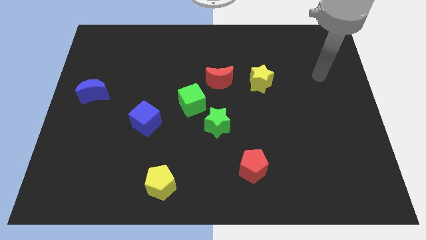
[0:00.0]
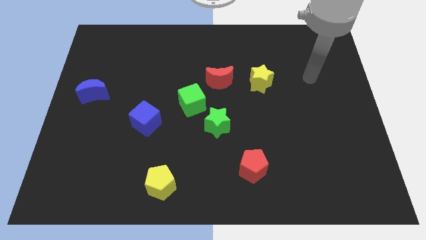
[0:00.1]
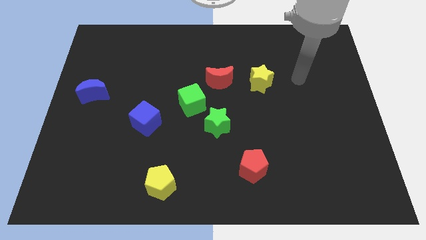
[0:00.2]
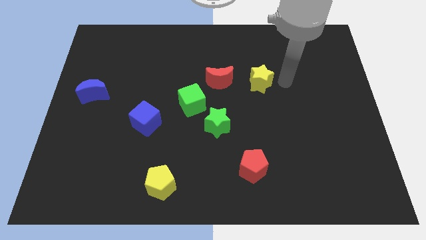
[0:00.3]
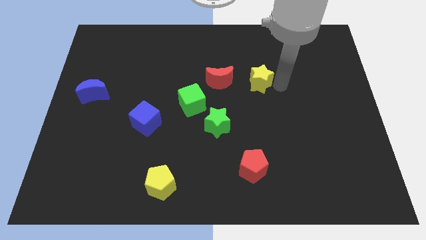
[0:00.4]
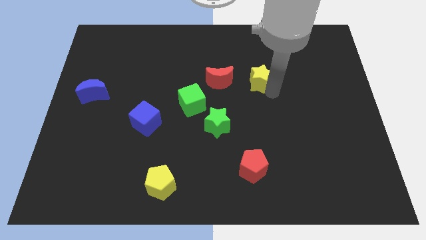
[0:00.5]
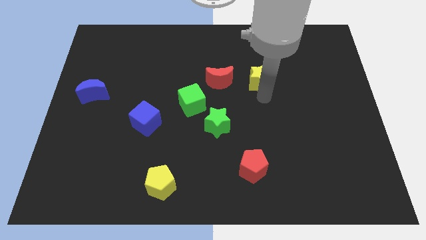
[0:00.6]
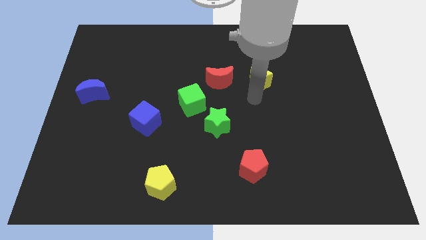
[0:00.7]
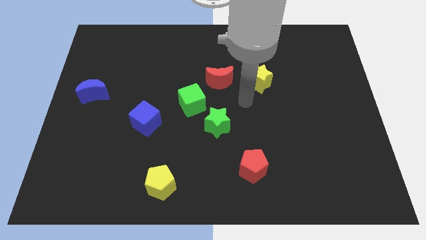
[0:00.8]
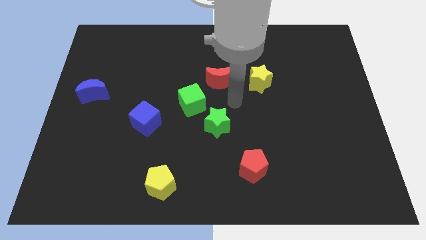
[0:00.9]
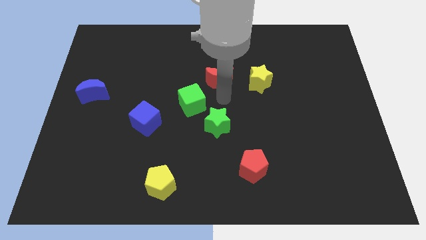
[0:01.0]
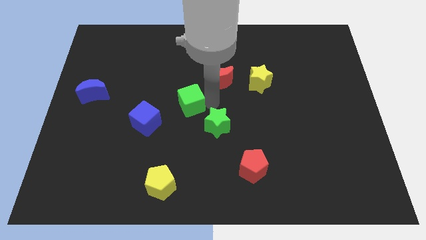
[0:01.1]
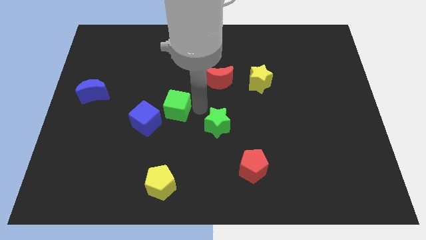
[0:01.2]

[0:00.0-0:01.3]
pull the green star apart from the green cube

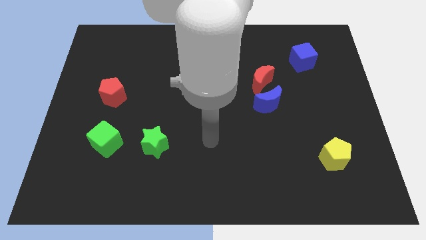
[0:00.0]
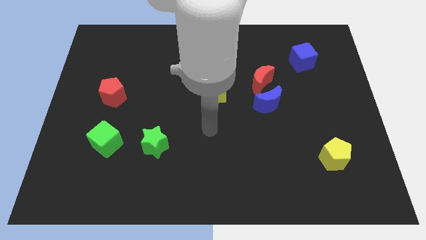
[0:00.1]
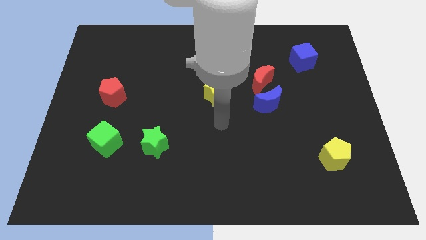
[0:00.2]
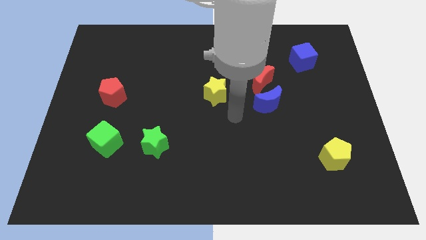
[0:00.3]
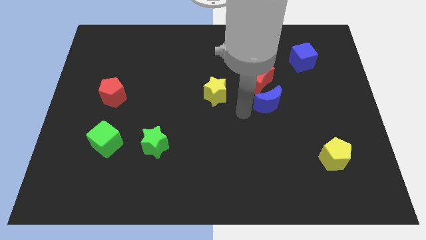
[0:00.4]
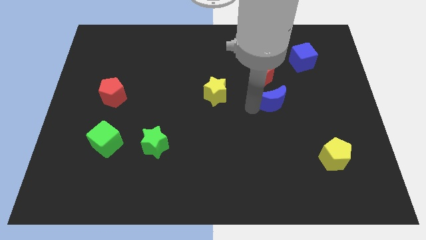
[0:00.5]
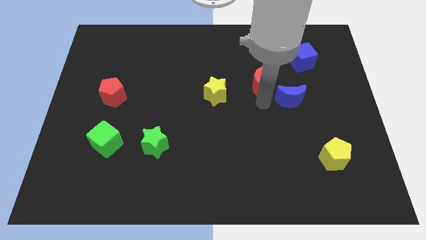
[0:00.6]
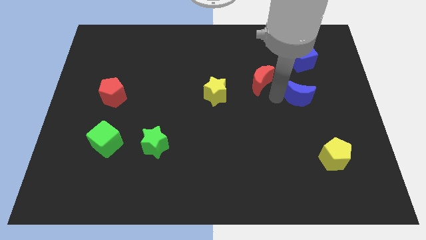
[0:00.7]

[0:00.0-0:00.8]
pull the red moon apart from the blue moon

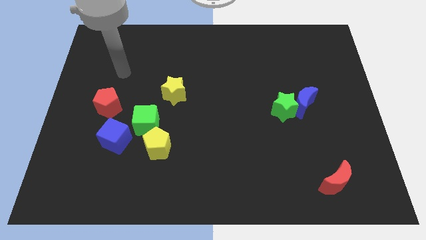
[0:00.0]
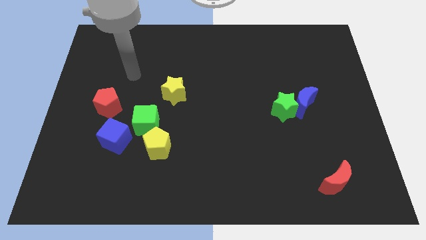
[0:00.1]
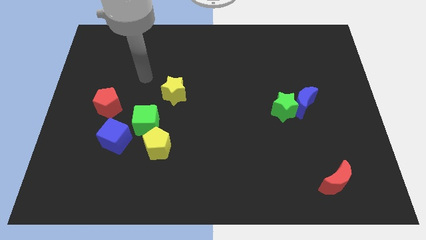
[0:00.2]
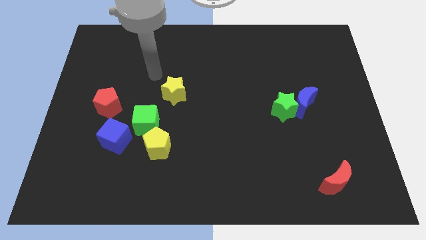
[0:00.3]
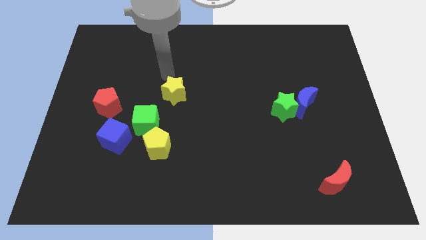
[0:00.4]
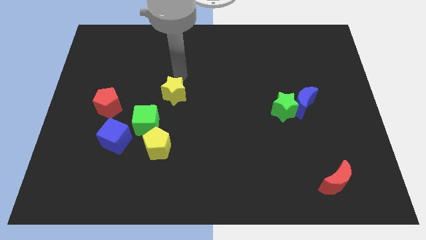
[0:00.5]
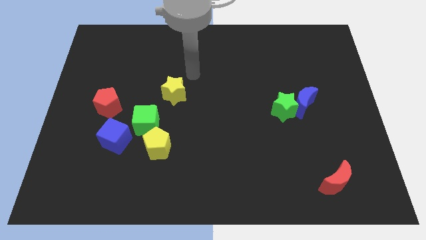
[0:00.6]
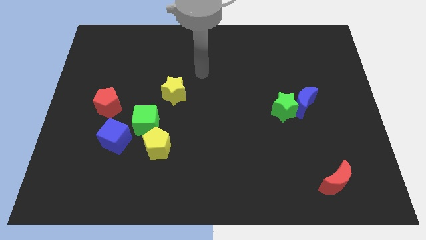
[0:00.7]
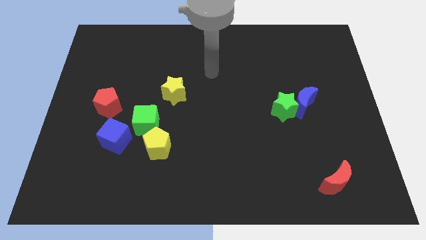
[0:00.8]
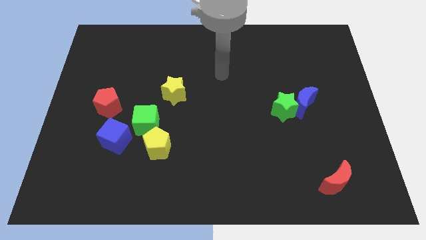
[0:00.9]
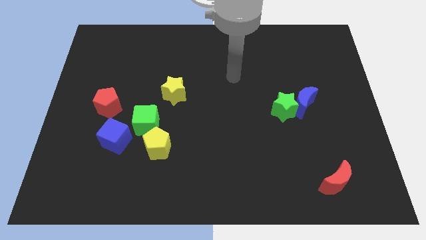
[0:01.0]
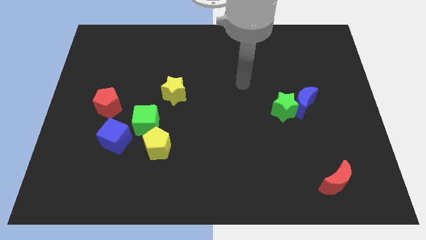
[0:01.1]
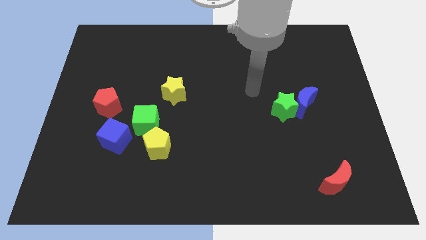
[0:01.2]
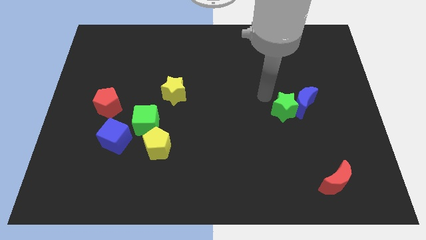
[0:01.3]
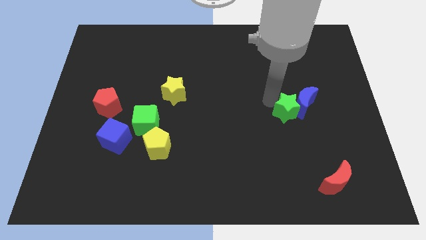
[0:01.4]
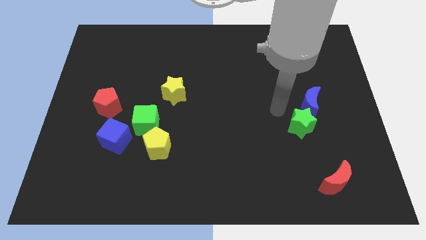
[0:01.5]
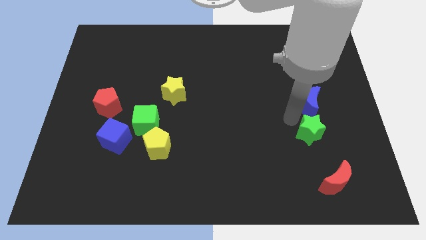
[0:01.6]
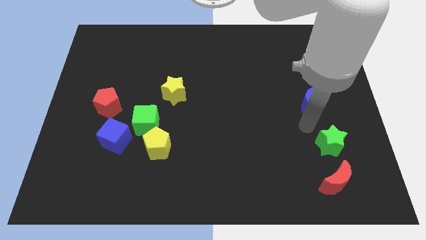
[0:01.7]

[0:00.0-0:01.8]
separate the blue moon from the green star

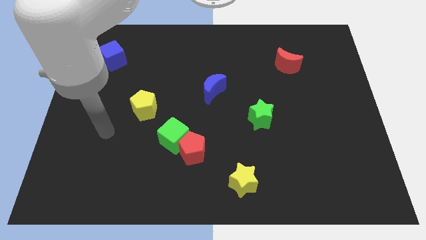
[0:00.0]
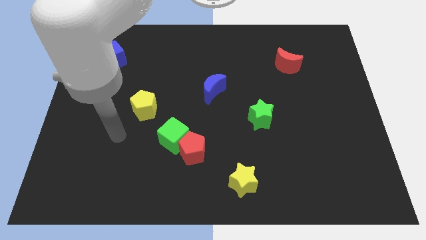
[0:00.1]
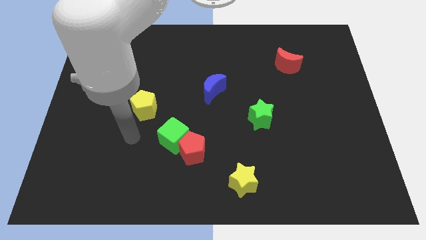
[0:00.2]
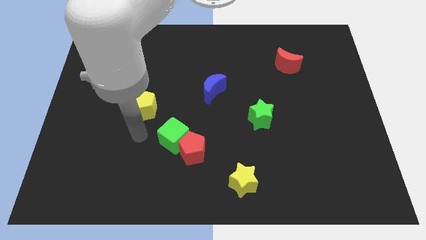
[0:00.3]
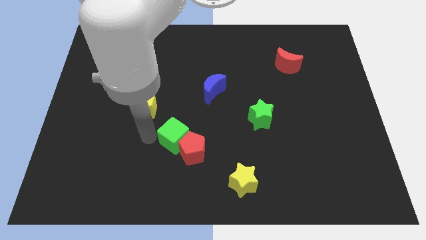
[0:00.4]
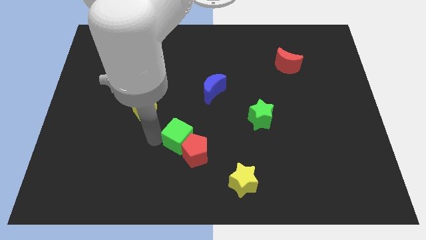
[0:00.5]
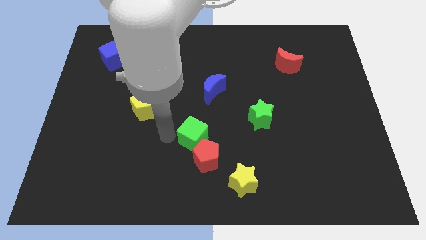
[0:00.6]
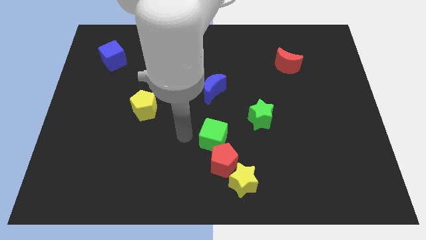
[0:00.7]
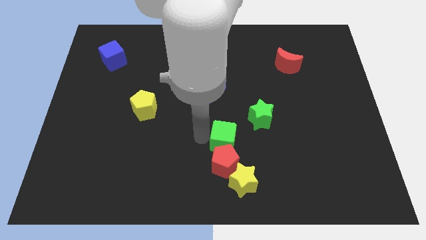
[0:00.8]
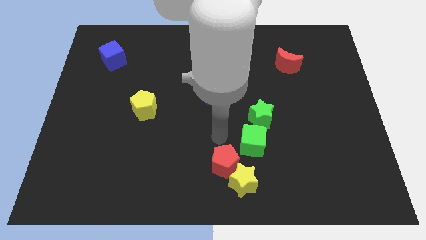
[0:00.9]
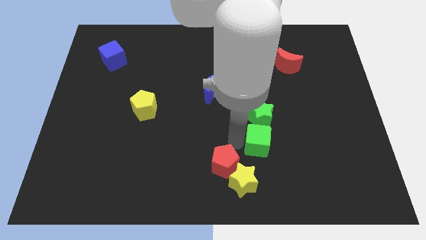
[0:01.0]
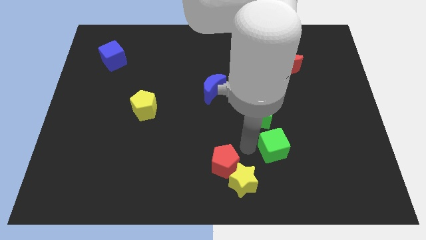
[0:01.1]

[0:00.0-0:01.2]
move the red pentagon away from the green cube

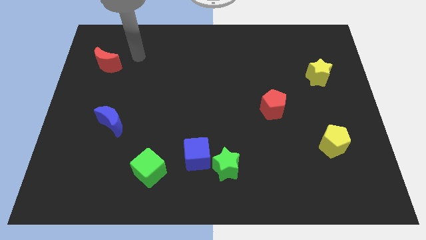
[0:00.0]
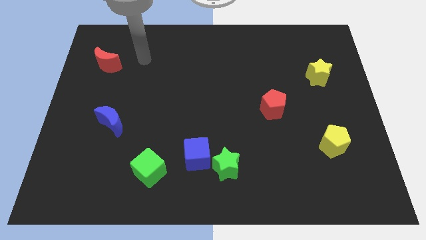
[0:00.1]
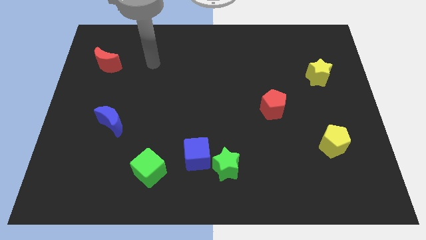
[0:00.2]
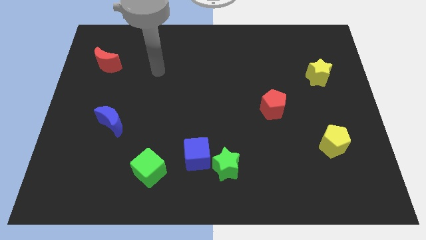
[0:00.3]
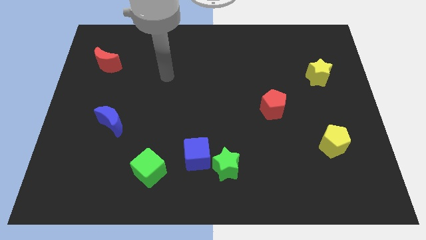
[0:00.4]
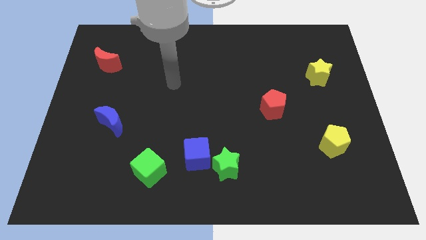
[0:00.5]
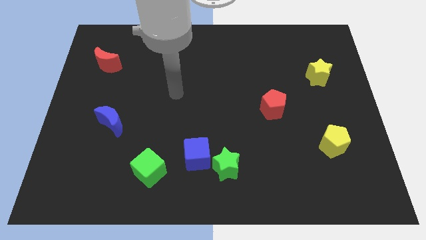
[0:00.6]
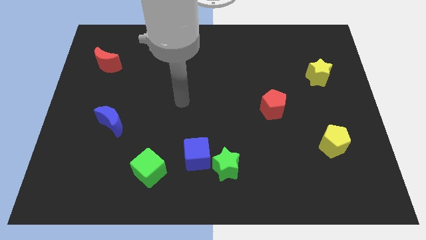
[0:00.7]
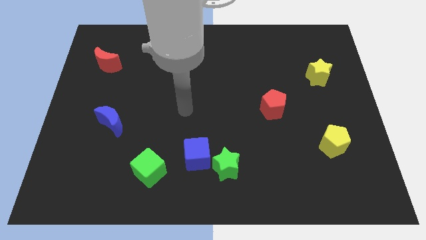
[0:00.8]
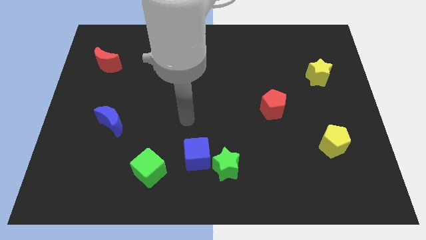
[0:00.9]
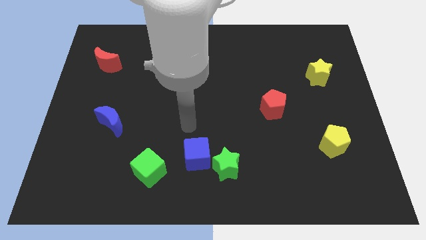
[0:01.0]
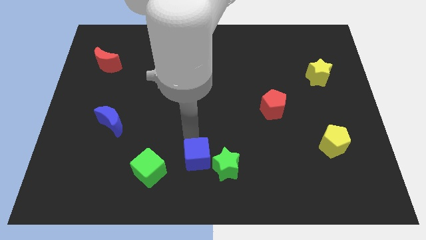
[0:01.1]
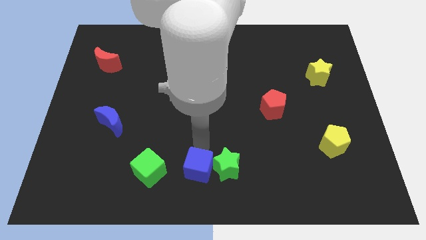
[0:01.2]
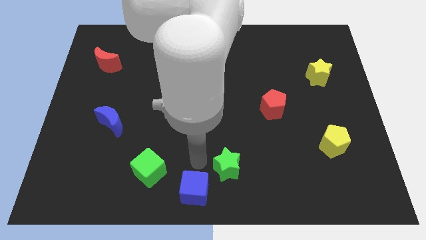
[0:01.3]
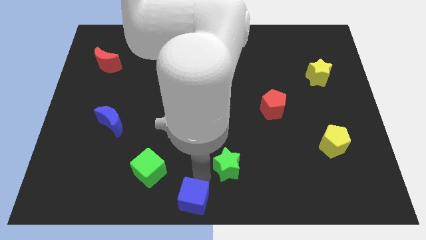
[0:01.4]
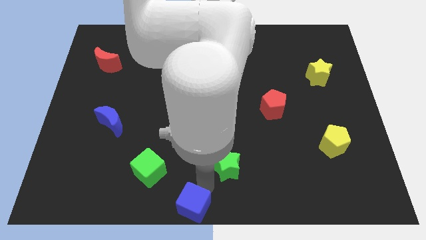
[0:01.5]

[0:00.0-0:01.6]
separate the green star from the blue cube

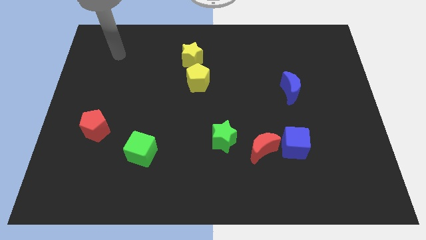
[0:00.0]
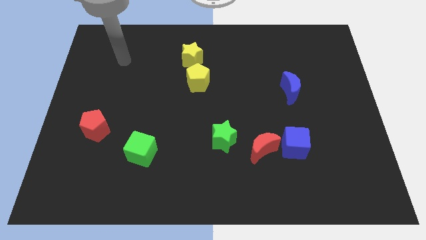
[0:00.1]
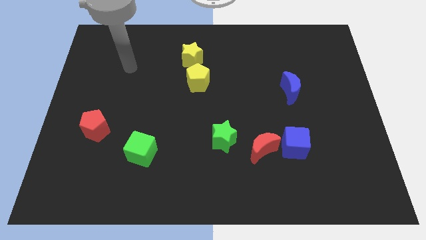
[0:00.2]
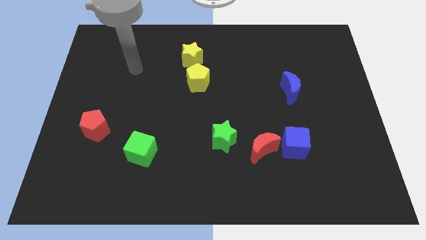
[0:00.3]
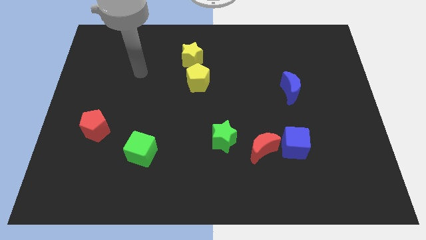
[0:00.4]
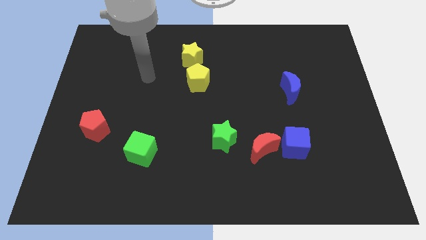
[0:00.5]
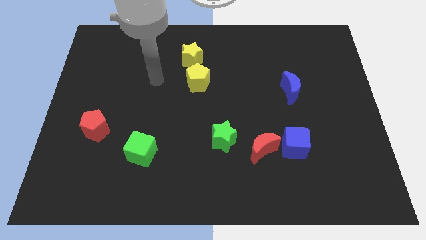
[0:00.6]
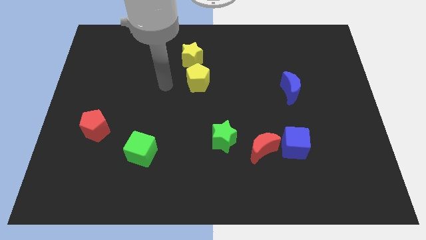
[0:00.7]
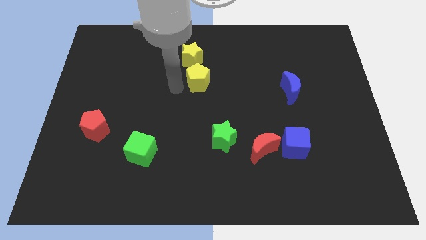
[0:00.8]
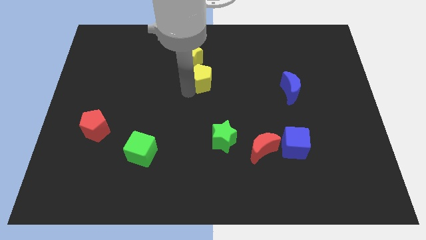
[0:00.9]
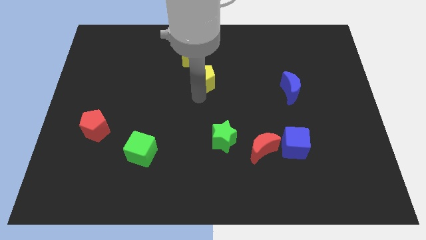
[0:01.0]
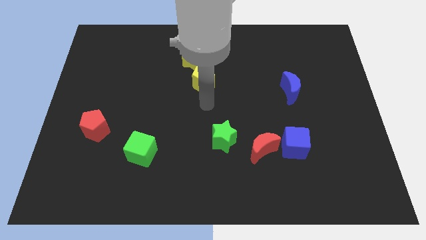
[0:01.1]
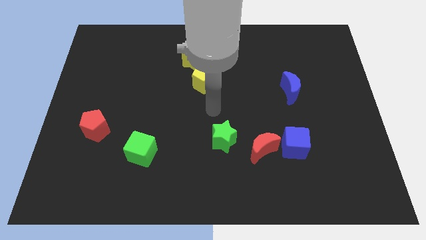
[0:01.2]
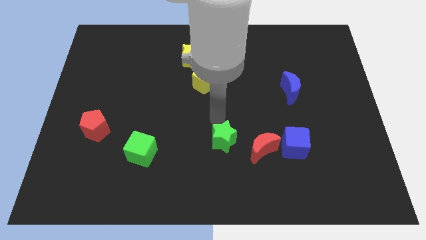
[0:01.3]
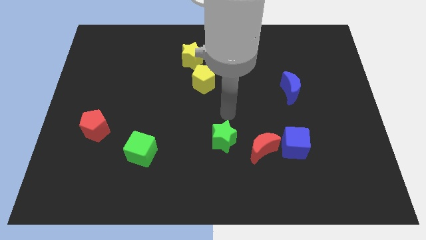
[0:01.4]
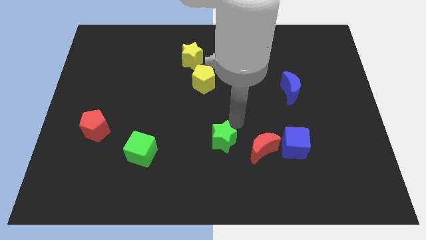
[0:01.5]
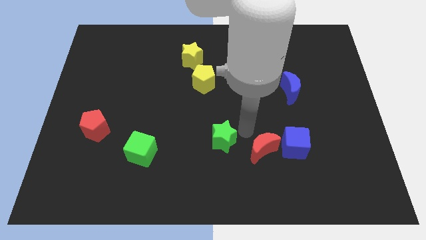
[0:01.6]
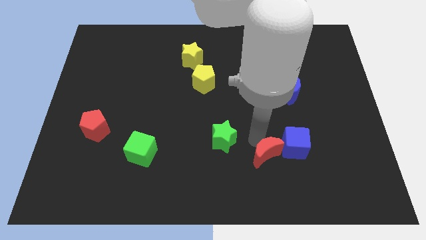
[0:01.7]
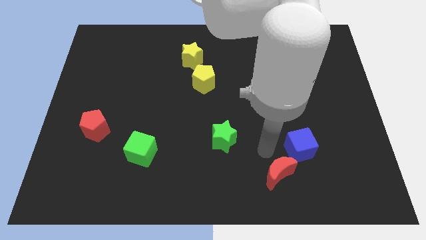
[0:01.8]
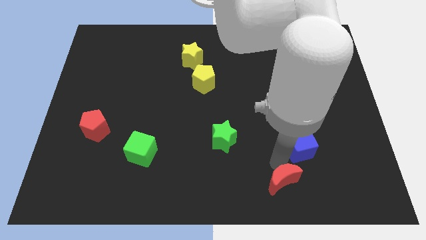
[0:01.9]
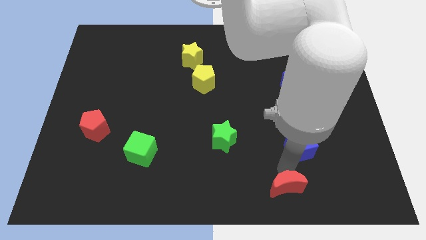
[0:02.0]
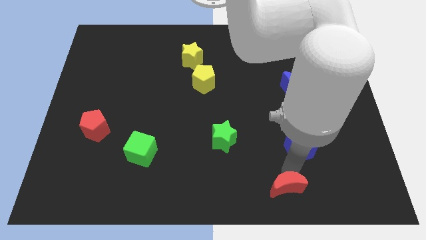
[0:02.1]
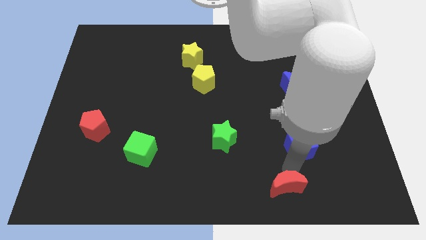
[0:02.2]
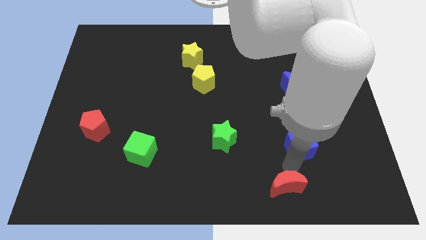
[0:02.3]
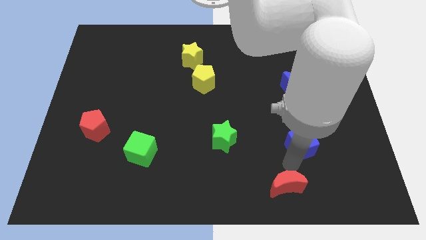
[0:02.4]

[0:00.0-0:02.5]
pull the blue cube apart from the red moon
